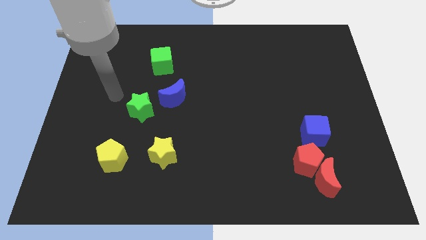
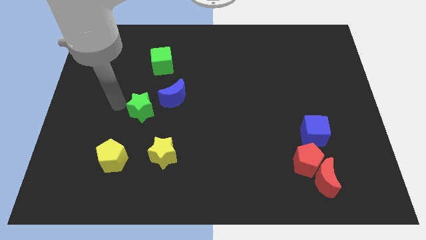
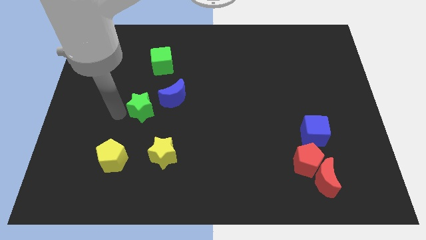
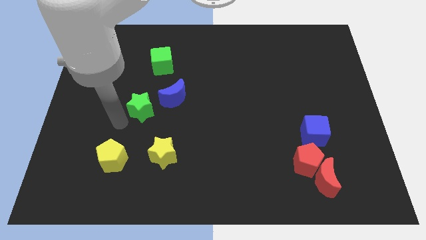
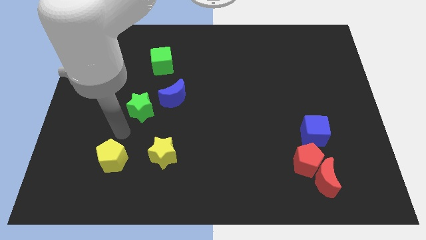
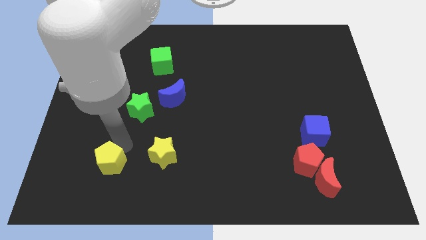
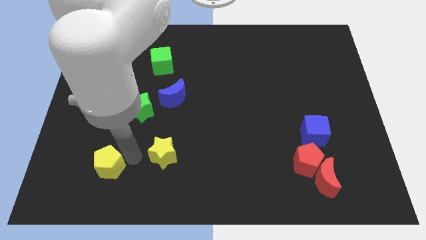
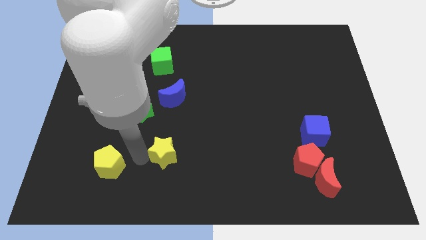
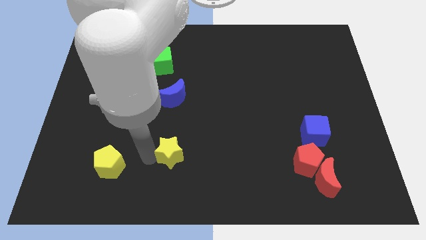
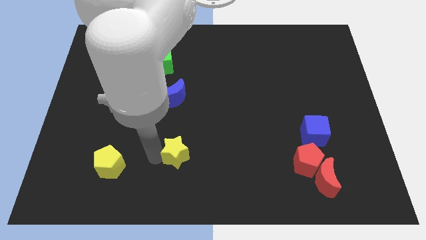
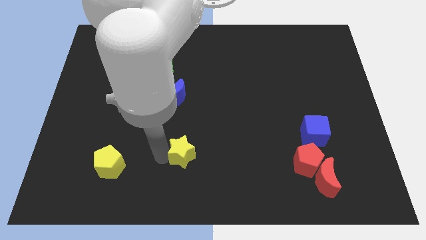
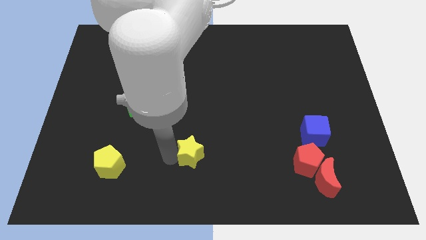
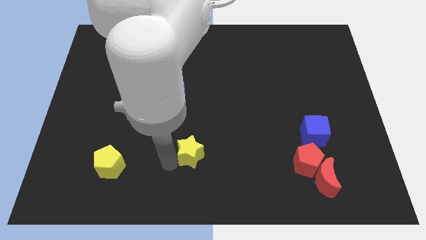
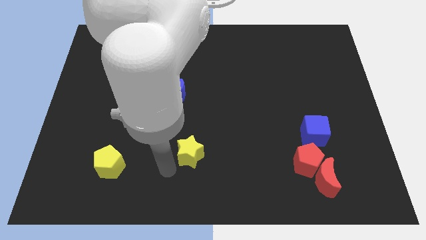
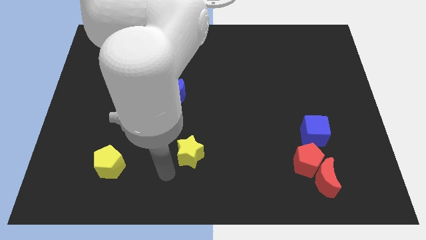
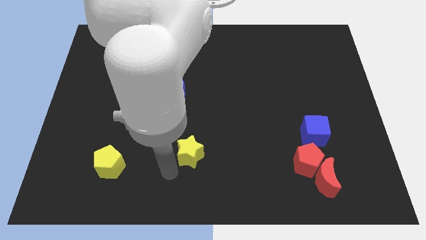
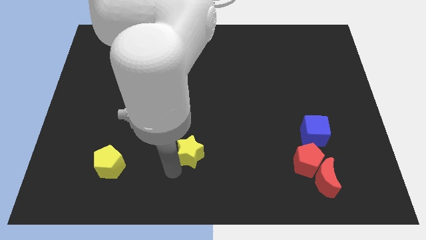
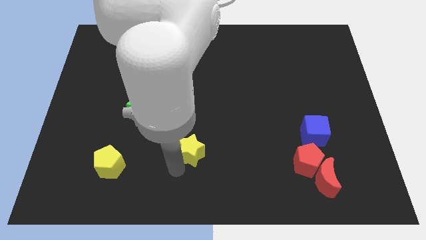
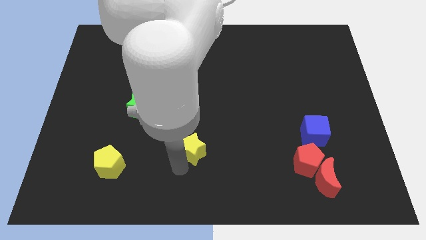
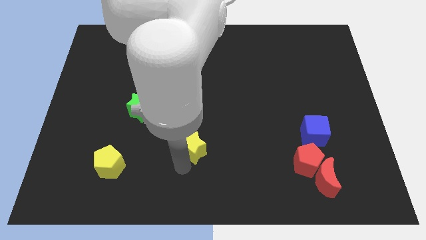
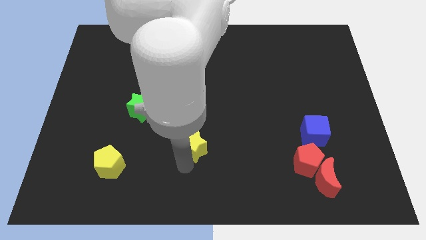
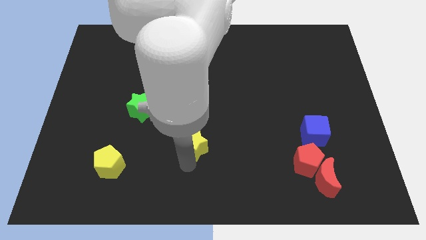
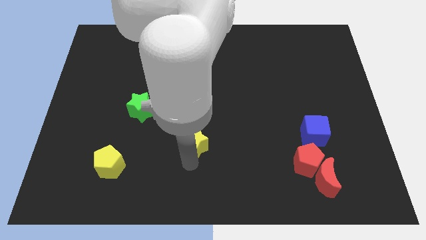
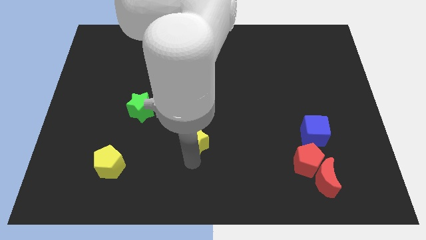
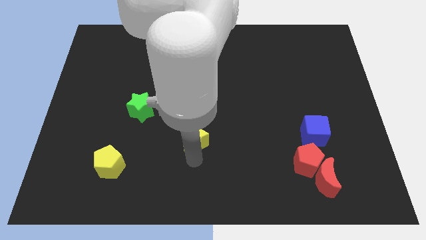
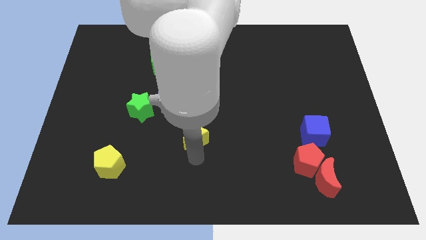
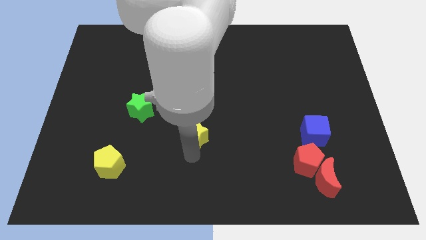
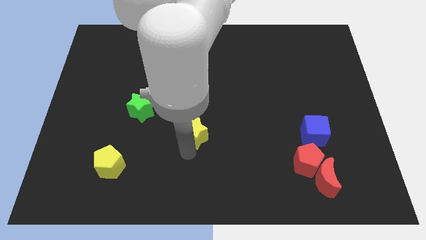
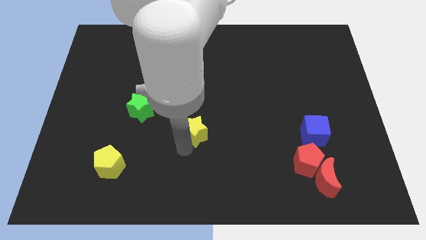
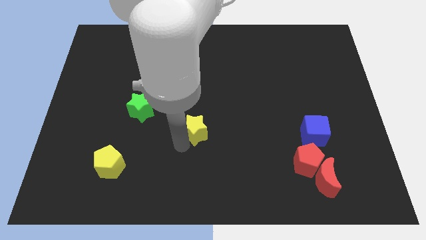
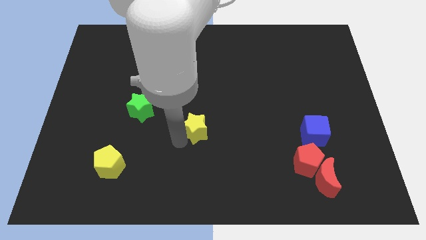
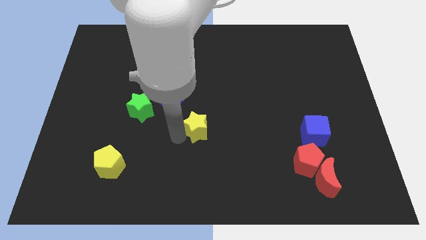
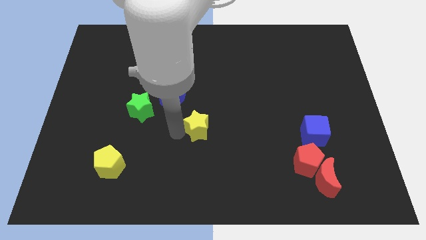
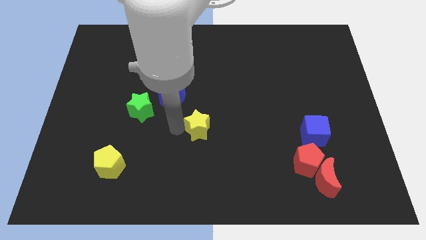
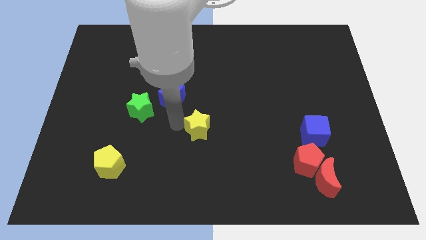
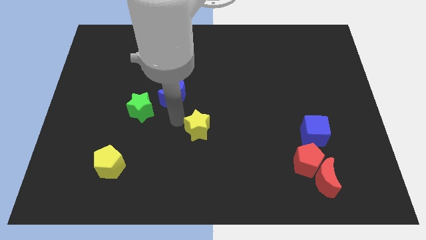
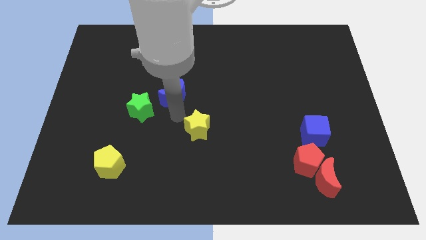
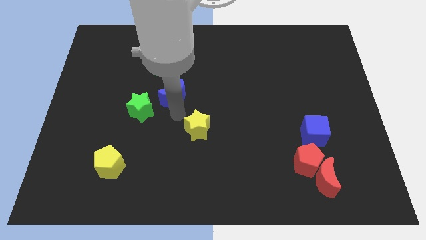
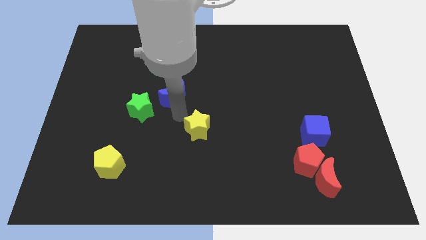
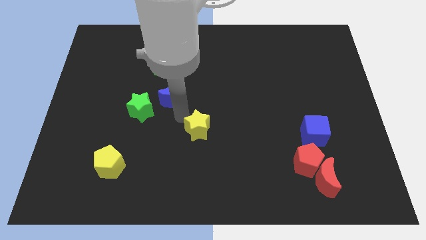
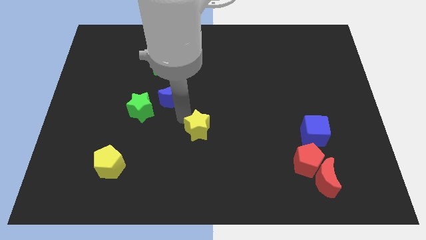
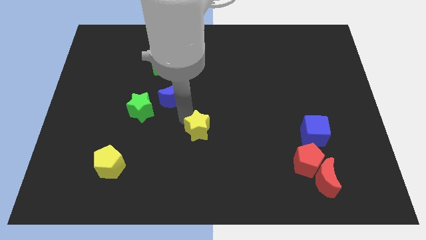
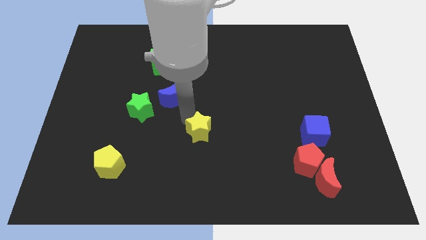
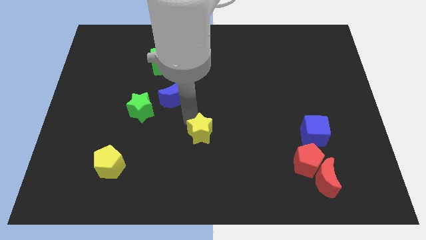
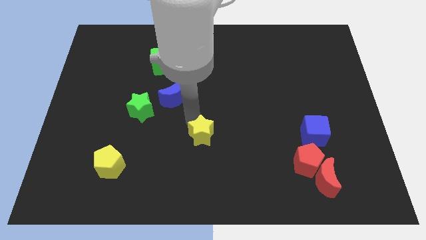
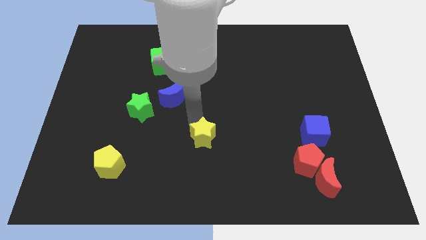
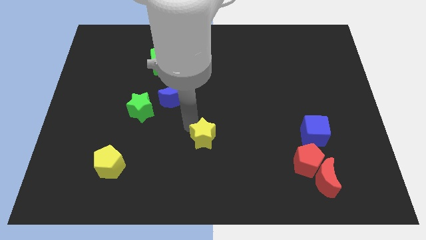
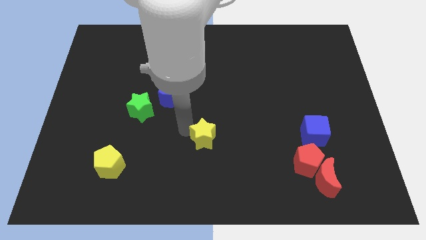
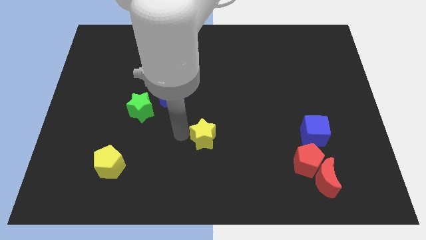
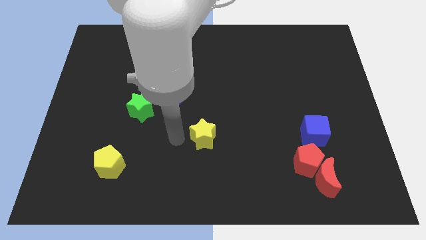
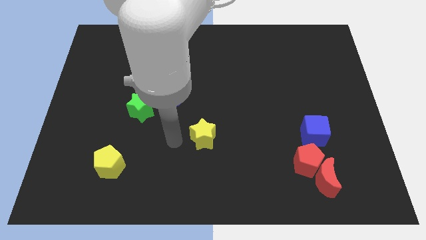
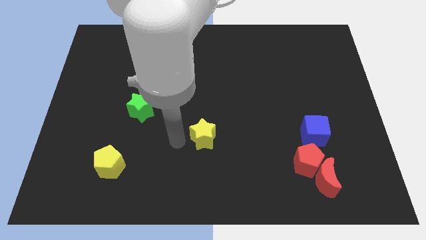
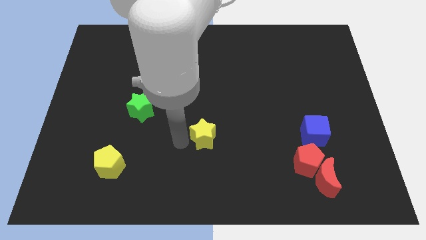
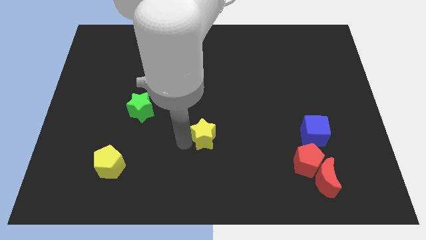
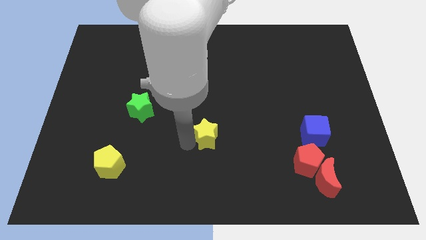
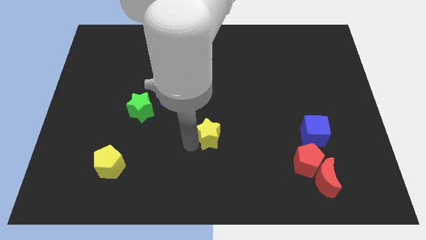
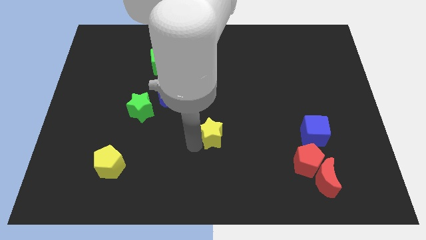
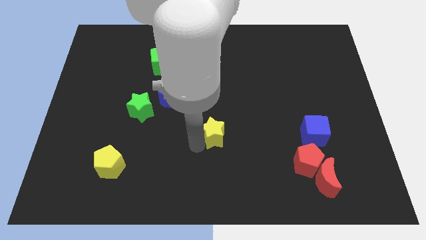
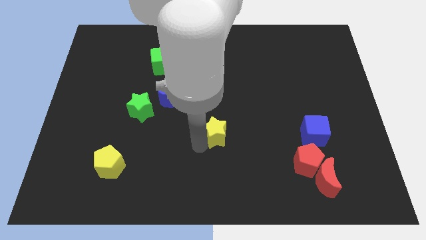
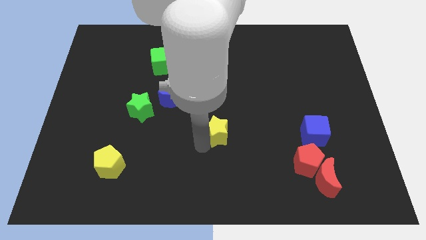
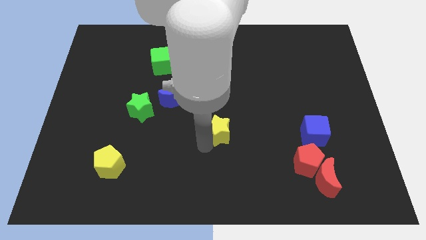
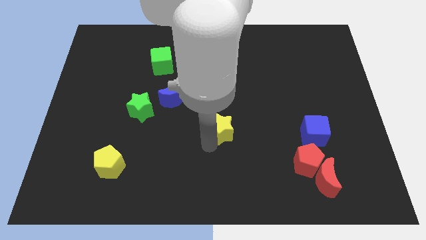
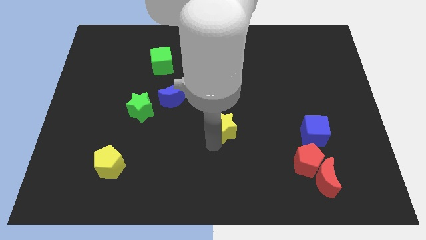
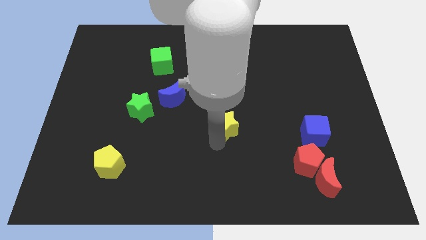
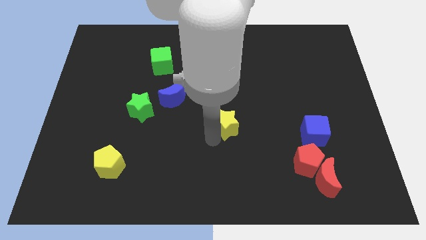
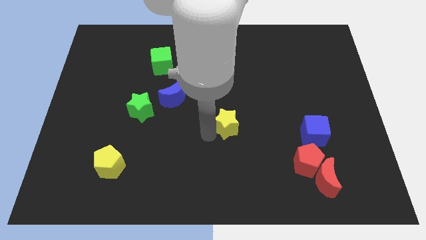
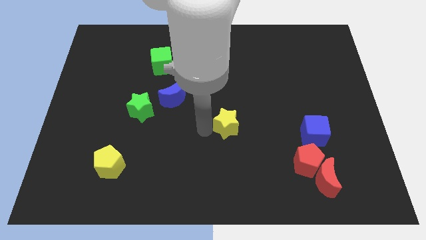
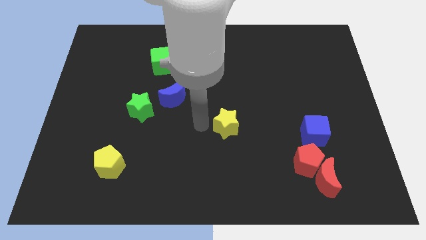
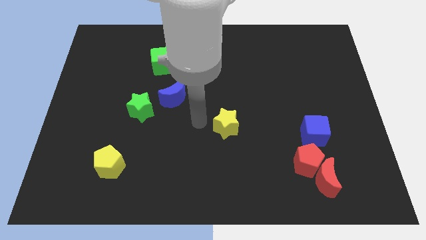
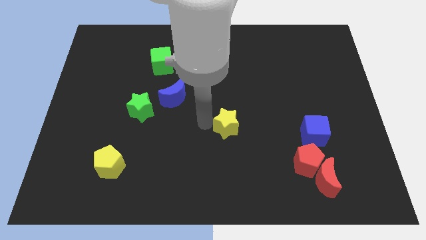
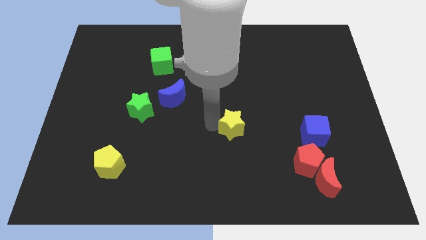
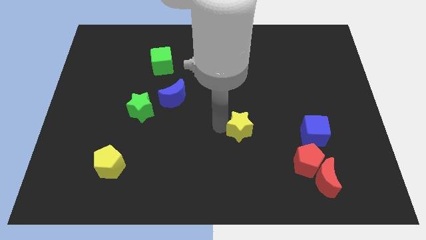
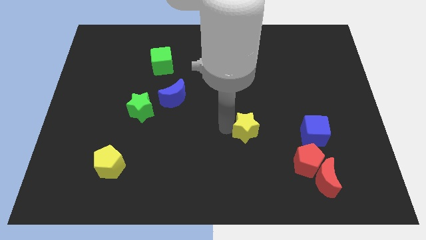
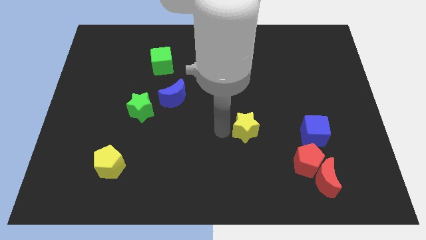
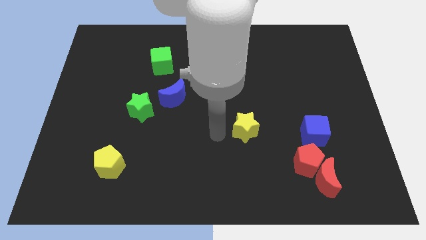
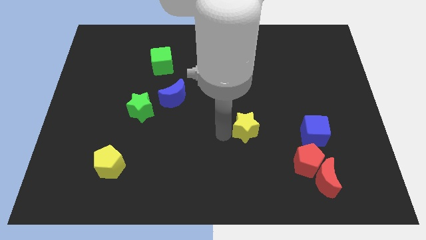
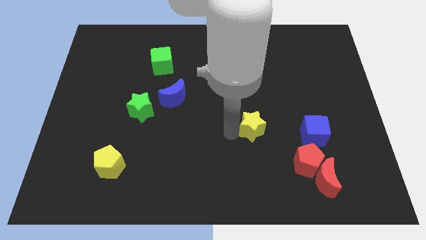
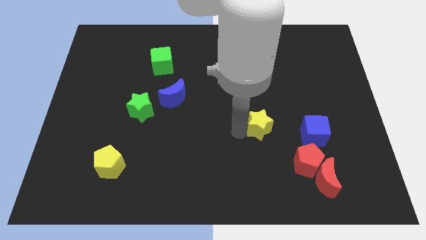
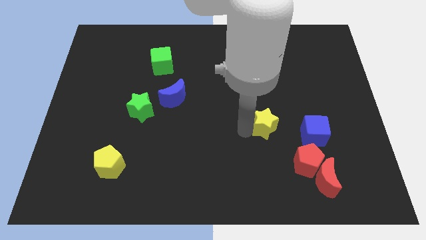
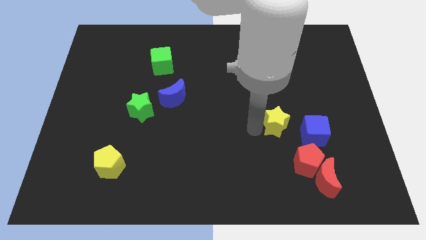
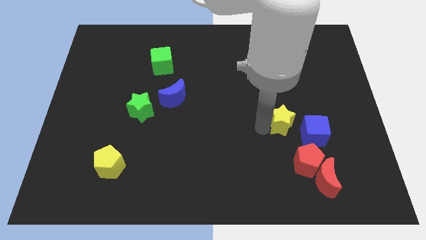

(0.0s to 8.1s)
slide the yellow star above the red pentagon
